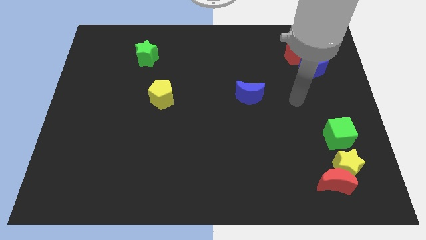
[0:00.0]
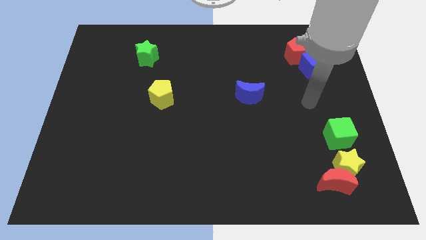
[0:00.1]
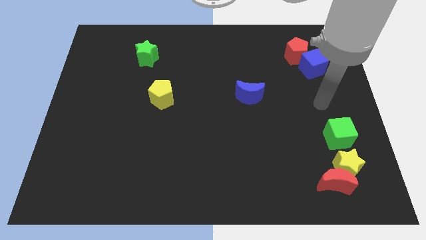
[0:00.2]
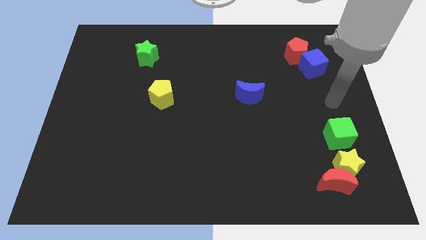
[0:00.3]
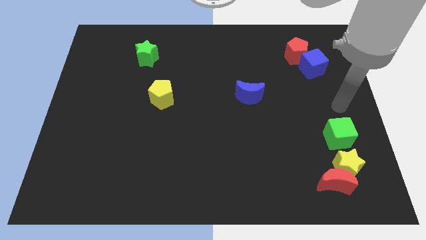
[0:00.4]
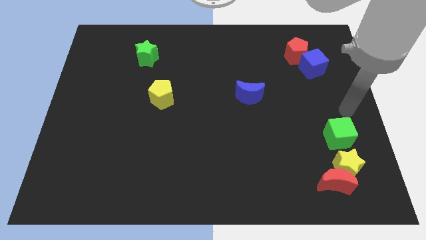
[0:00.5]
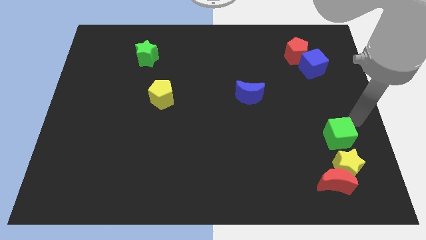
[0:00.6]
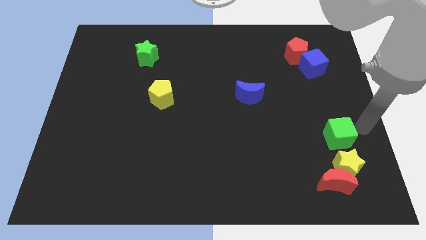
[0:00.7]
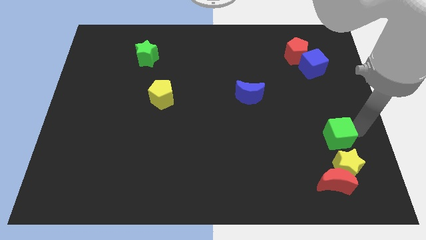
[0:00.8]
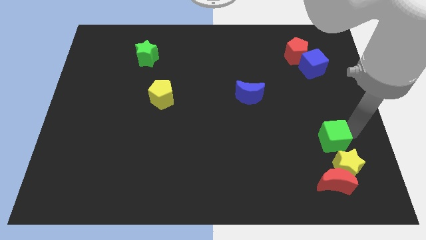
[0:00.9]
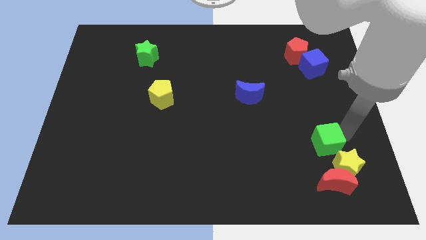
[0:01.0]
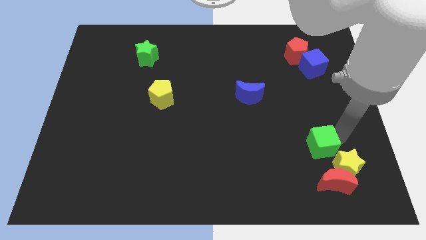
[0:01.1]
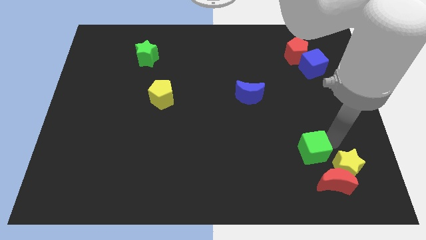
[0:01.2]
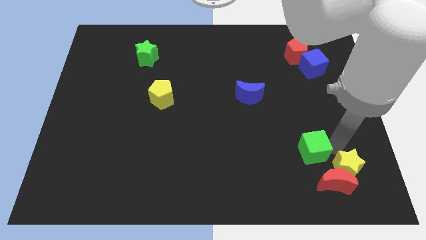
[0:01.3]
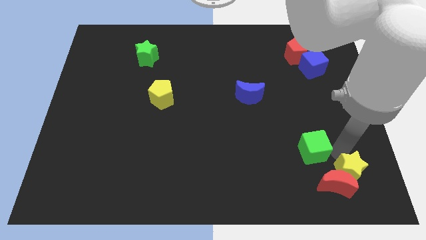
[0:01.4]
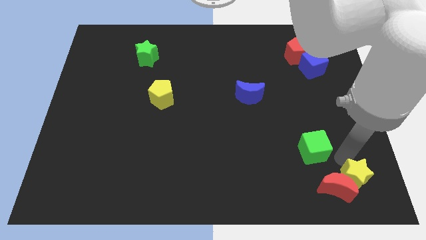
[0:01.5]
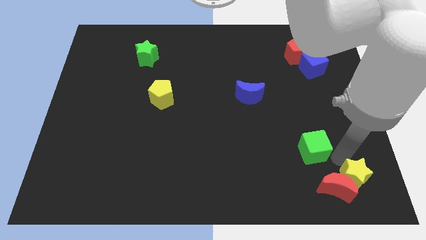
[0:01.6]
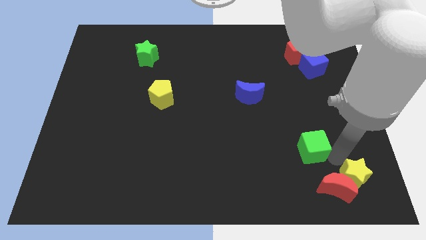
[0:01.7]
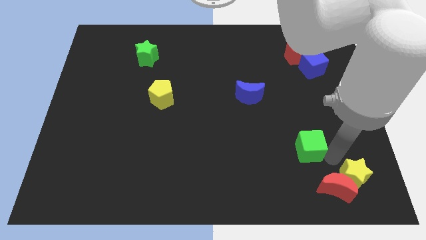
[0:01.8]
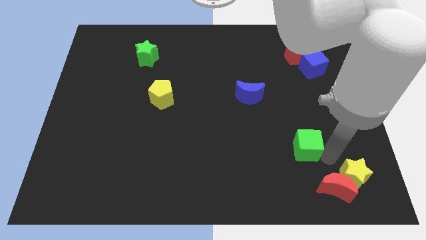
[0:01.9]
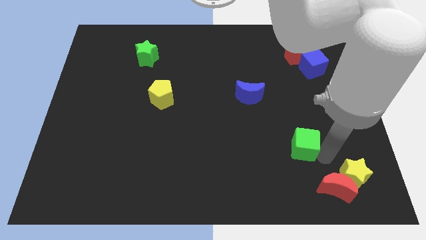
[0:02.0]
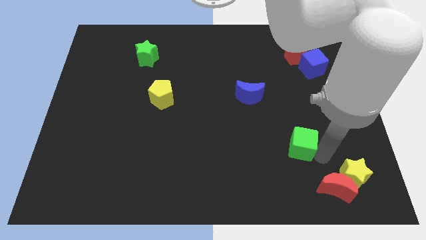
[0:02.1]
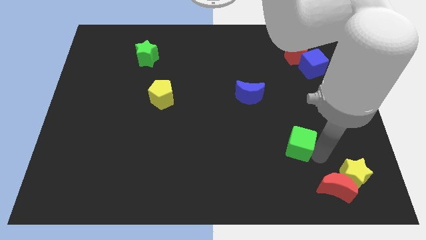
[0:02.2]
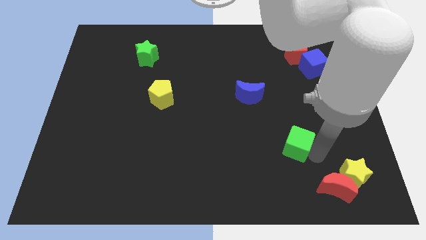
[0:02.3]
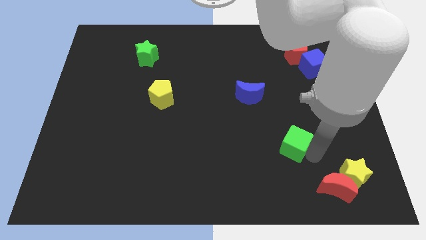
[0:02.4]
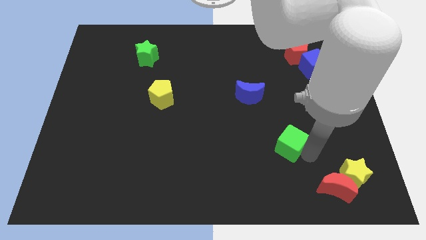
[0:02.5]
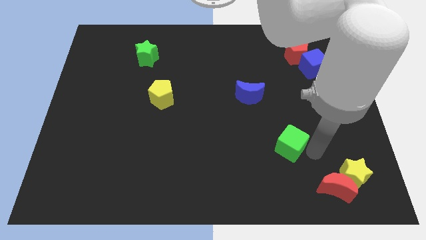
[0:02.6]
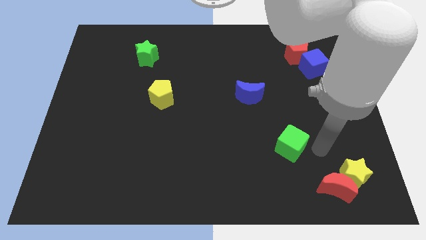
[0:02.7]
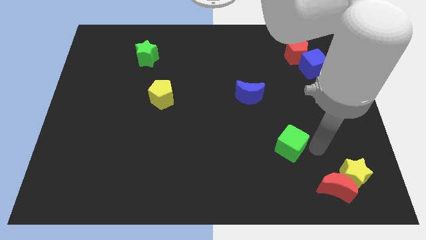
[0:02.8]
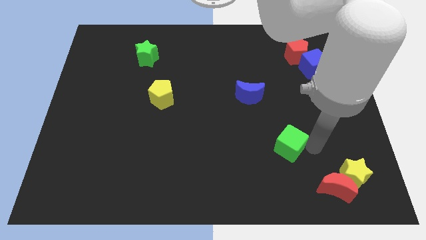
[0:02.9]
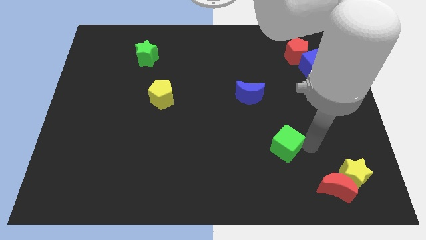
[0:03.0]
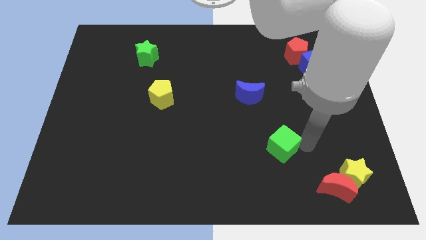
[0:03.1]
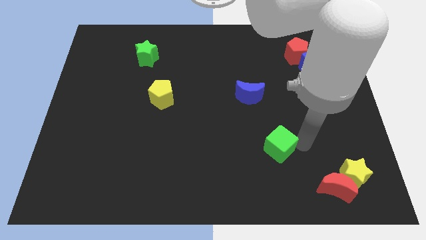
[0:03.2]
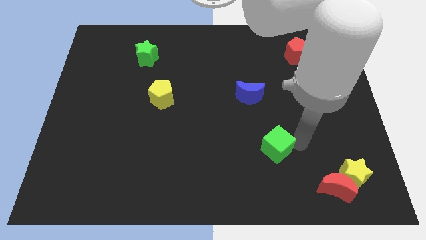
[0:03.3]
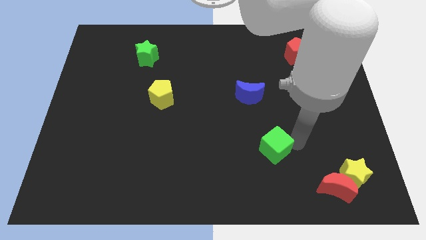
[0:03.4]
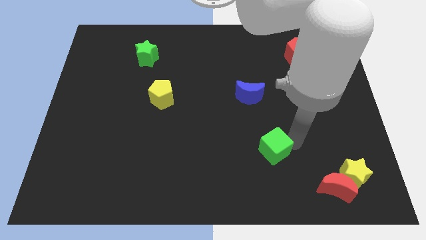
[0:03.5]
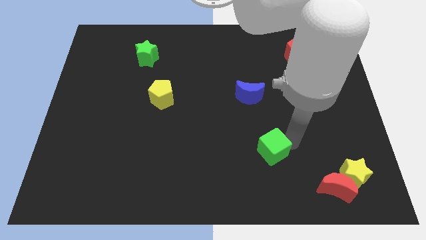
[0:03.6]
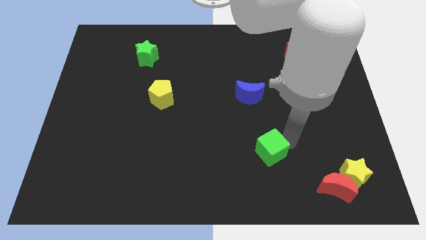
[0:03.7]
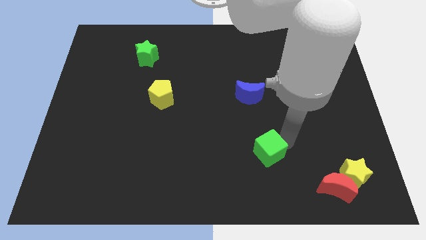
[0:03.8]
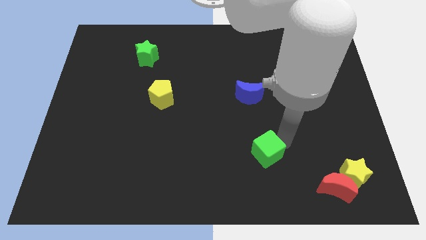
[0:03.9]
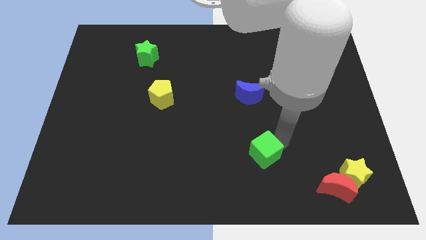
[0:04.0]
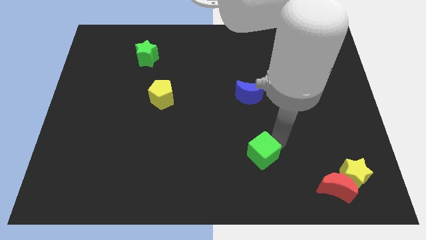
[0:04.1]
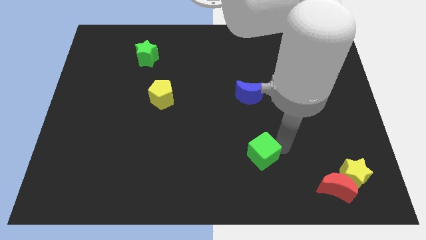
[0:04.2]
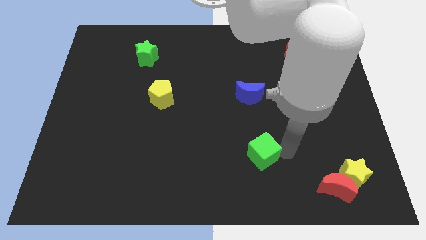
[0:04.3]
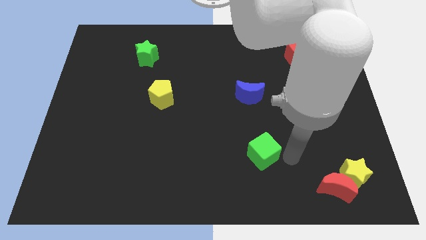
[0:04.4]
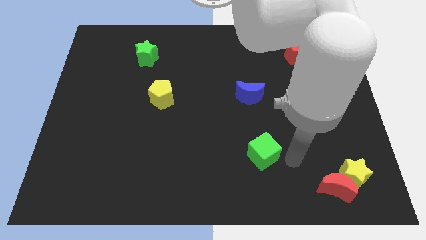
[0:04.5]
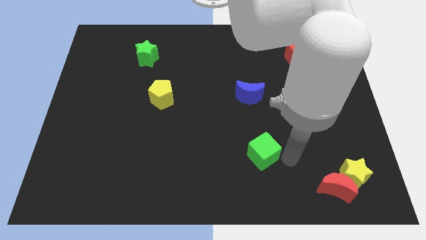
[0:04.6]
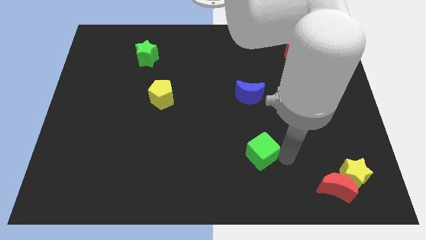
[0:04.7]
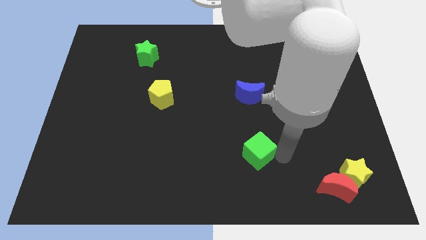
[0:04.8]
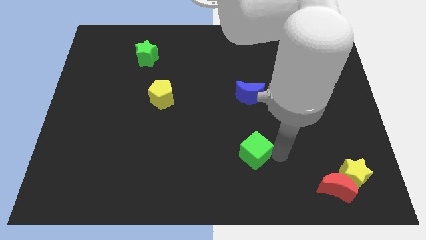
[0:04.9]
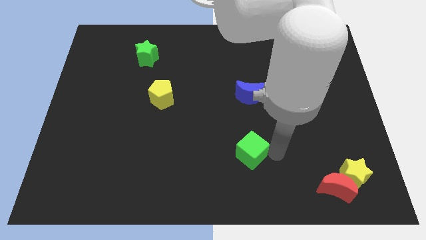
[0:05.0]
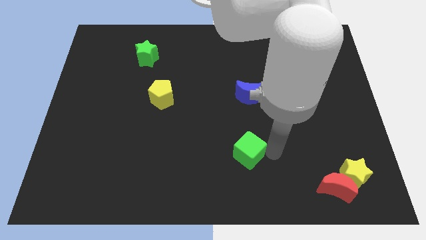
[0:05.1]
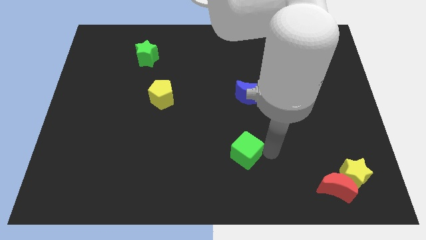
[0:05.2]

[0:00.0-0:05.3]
move the green cube to the left

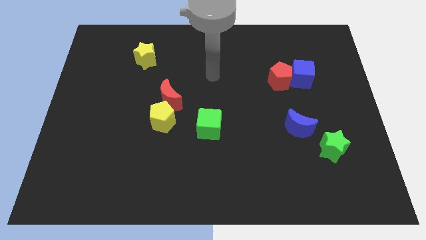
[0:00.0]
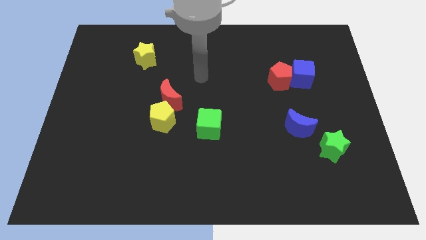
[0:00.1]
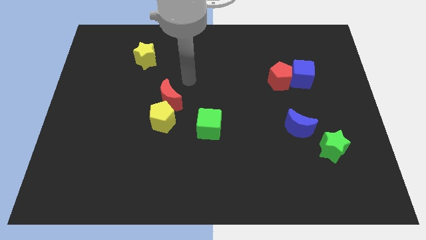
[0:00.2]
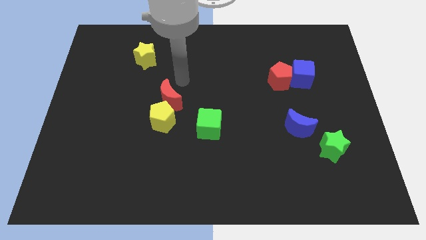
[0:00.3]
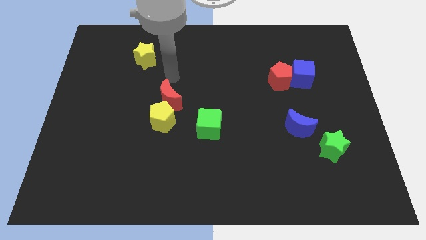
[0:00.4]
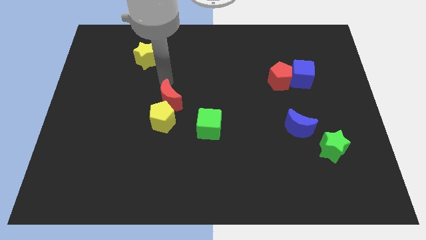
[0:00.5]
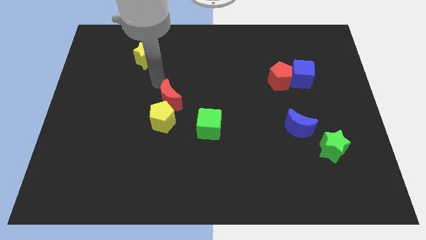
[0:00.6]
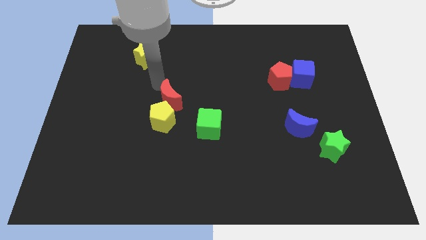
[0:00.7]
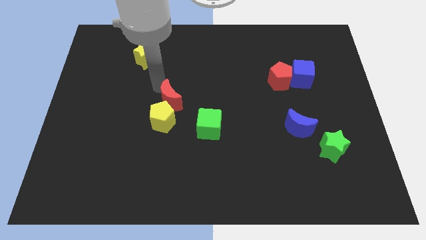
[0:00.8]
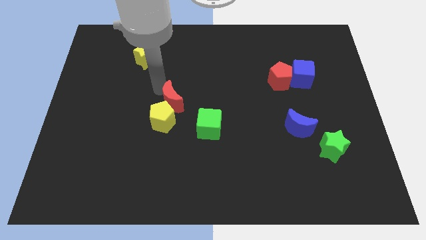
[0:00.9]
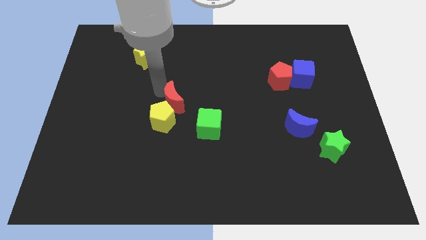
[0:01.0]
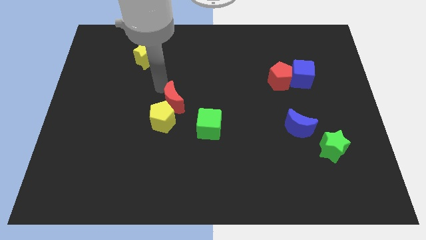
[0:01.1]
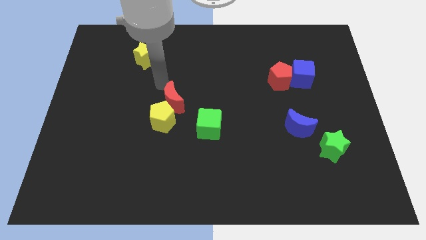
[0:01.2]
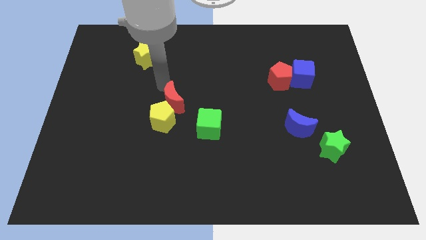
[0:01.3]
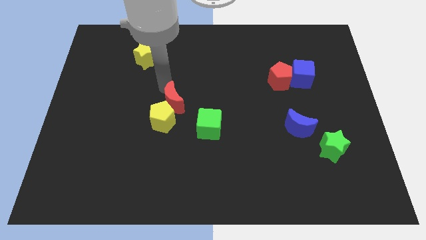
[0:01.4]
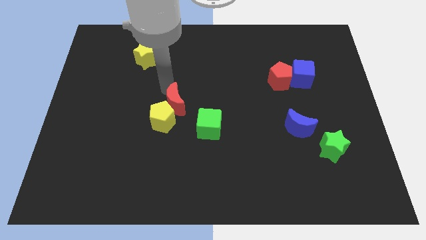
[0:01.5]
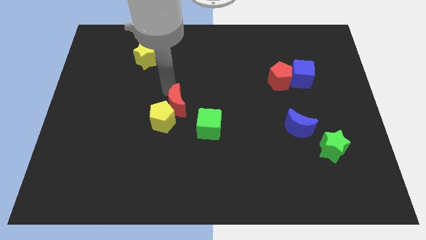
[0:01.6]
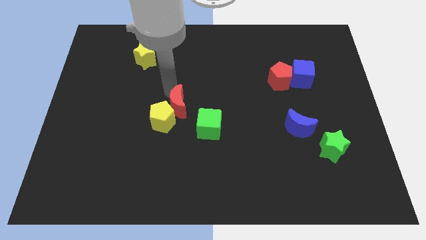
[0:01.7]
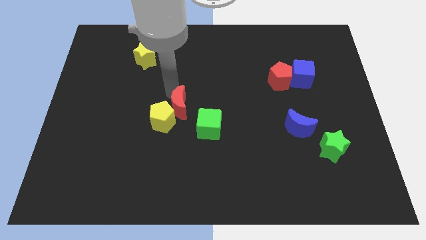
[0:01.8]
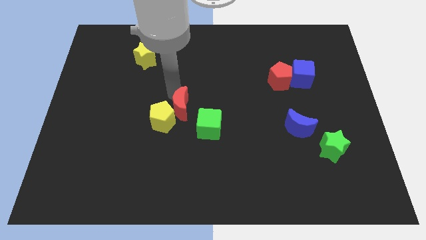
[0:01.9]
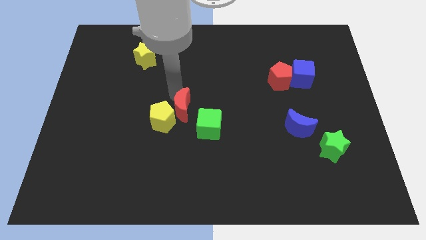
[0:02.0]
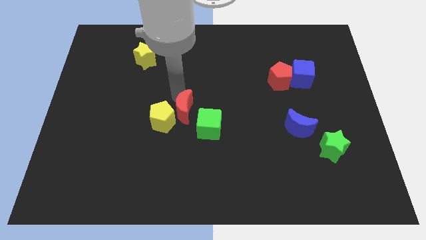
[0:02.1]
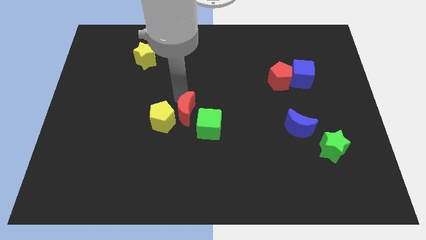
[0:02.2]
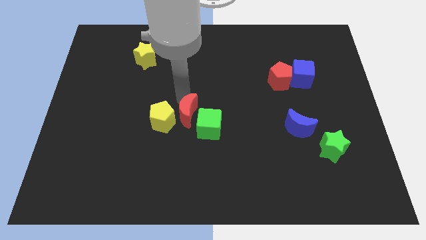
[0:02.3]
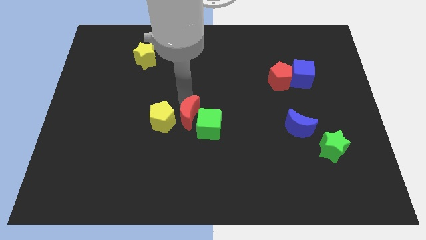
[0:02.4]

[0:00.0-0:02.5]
push the red moon a bit diagonally down and to the right
